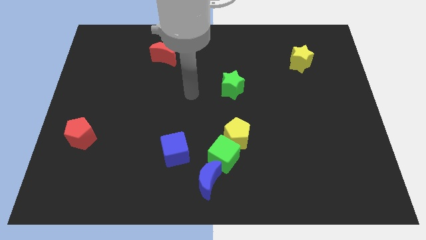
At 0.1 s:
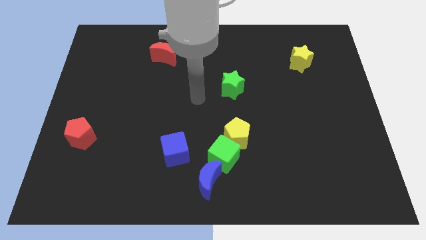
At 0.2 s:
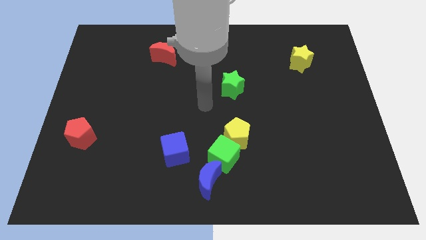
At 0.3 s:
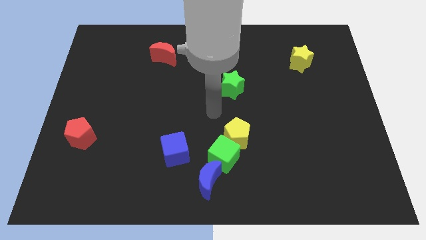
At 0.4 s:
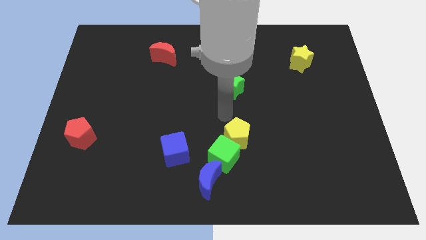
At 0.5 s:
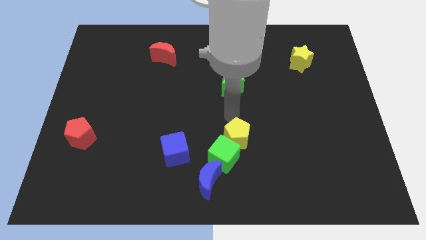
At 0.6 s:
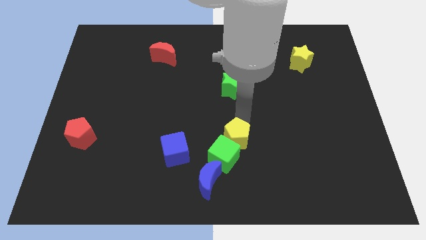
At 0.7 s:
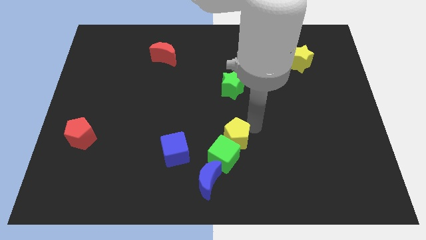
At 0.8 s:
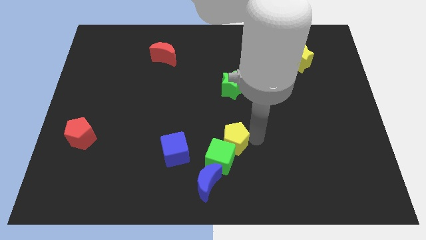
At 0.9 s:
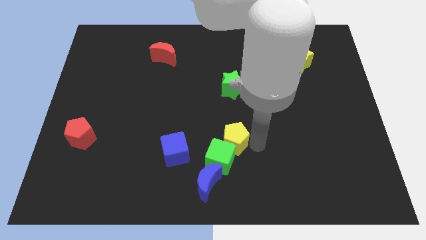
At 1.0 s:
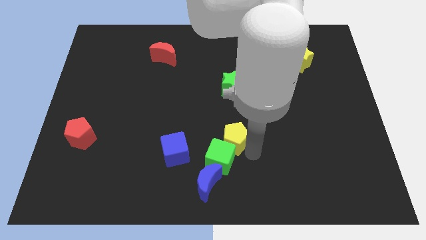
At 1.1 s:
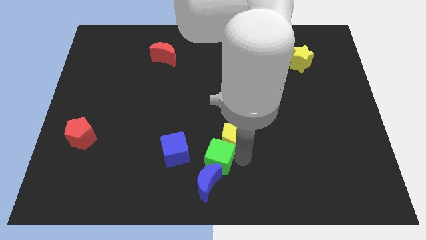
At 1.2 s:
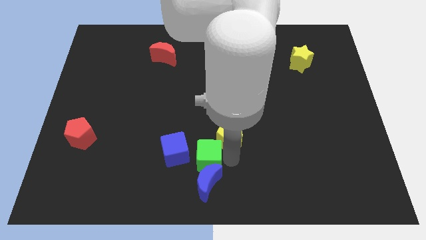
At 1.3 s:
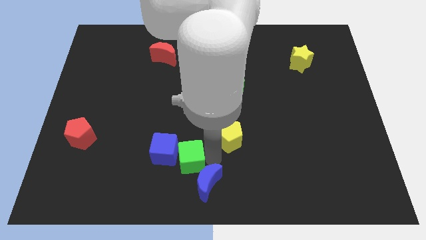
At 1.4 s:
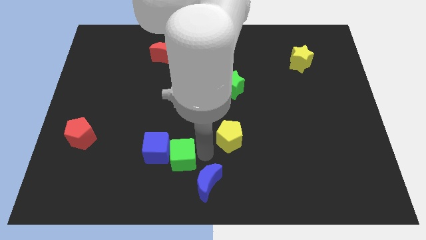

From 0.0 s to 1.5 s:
move the yellow pentagon away from the green cube

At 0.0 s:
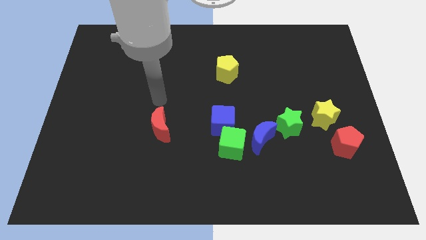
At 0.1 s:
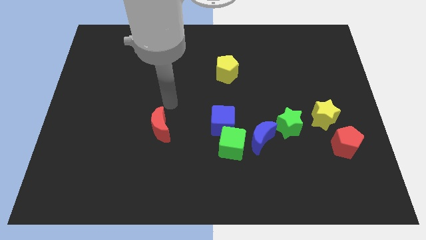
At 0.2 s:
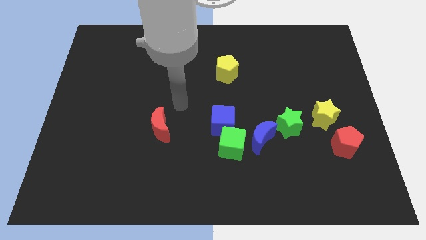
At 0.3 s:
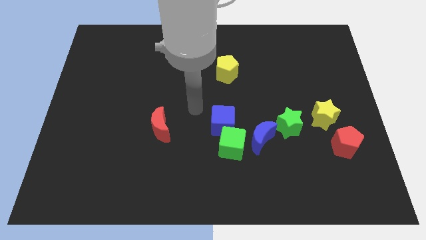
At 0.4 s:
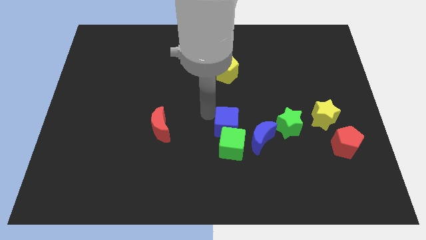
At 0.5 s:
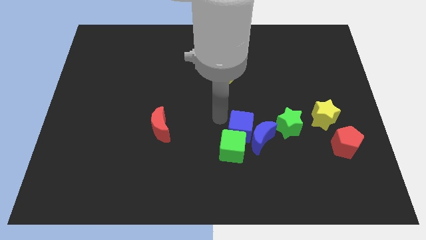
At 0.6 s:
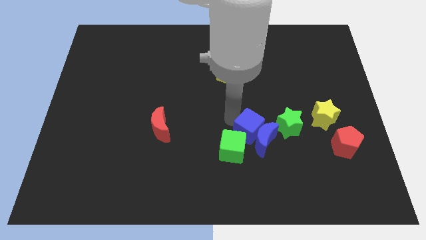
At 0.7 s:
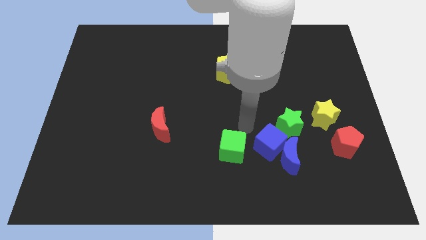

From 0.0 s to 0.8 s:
move the green cube away from the blue cube and blue moon

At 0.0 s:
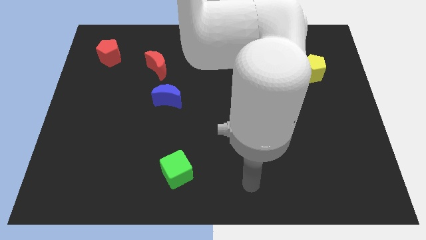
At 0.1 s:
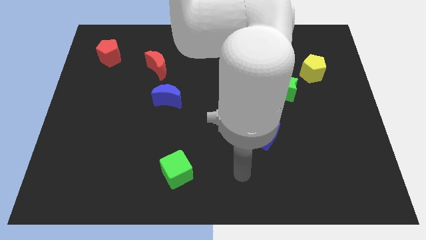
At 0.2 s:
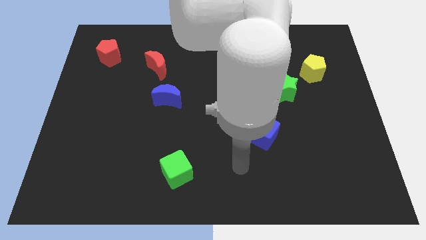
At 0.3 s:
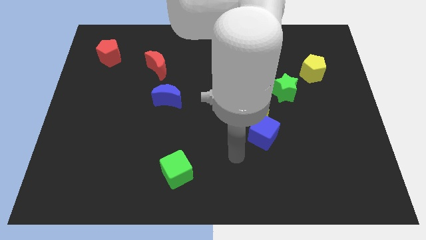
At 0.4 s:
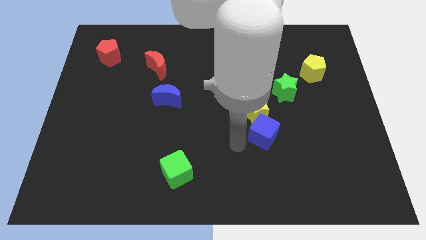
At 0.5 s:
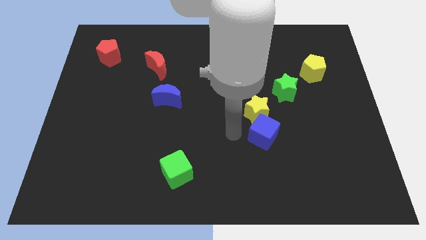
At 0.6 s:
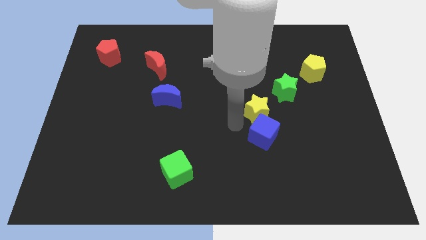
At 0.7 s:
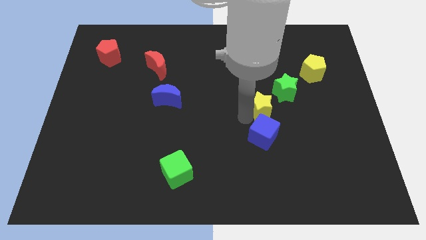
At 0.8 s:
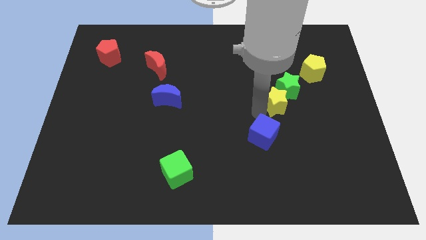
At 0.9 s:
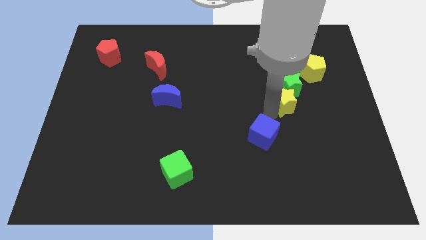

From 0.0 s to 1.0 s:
pull the blue cube apart from the yellow star

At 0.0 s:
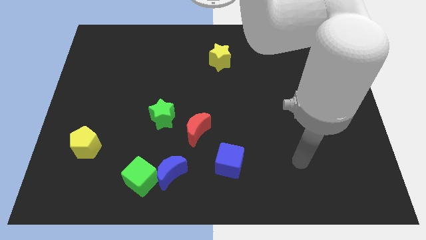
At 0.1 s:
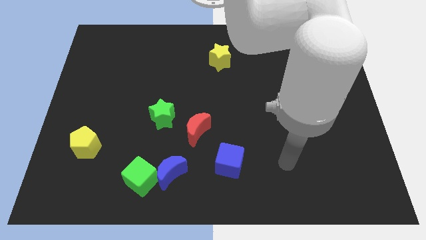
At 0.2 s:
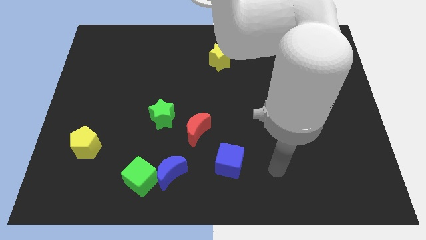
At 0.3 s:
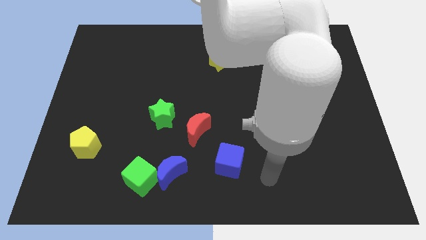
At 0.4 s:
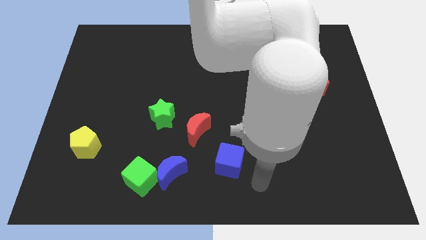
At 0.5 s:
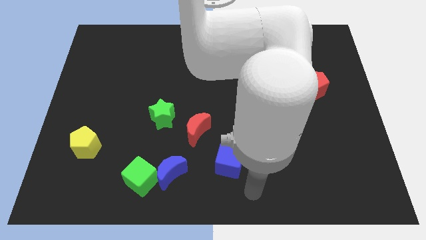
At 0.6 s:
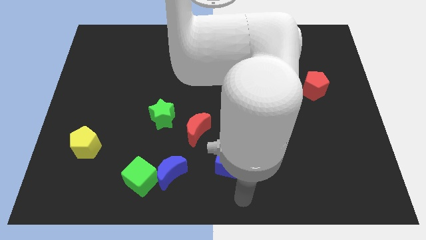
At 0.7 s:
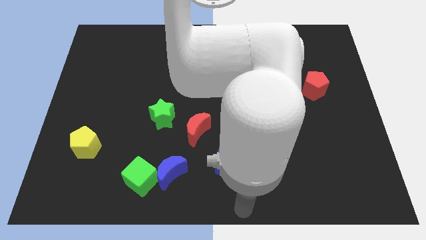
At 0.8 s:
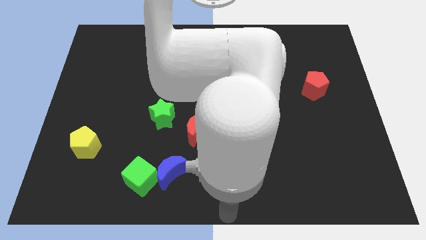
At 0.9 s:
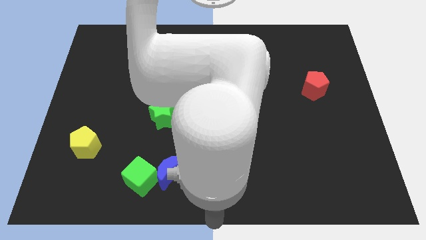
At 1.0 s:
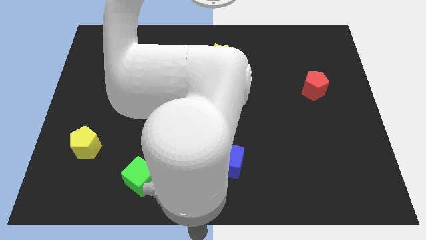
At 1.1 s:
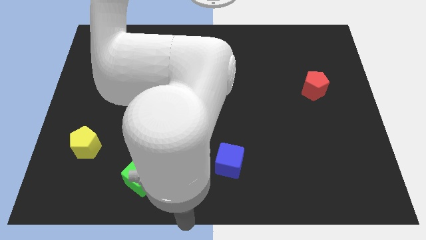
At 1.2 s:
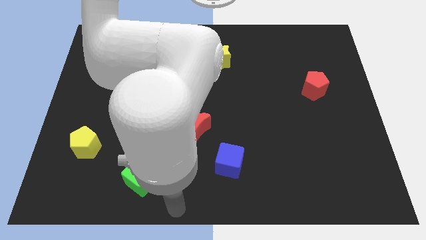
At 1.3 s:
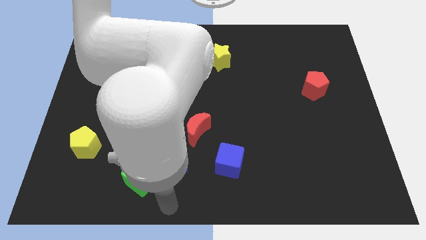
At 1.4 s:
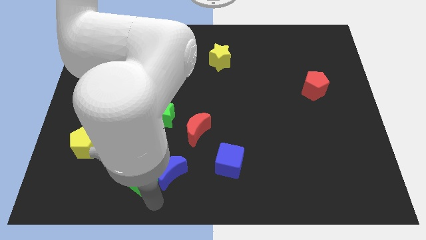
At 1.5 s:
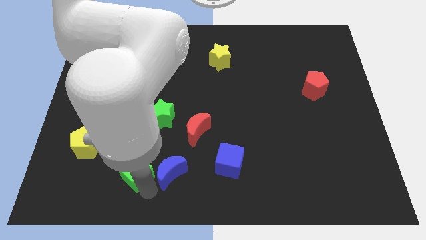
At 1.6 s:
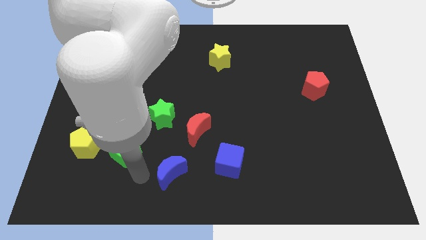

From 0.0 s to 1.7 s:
pull the blue moon apart from the green cube

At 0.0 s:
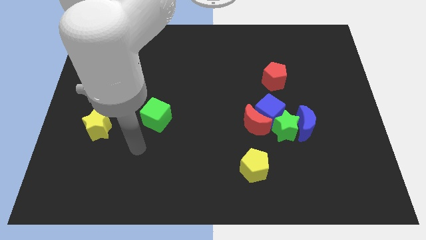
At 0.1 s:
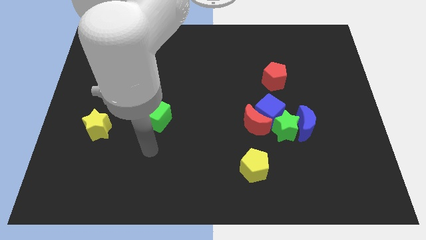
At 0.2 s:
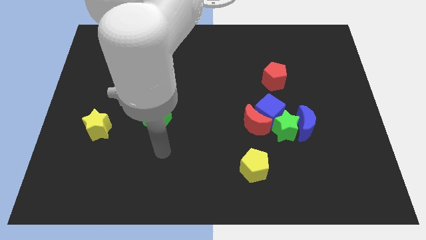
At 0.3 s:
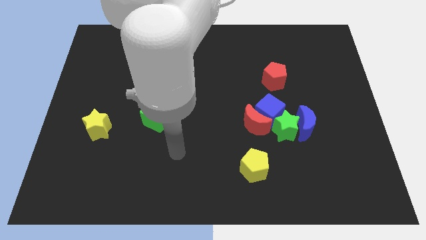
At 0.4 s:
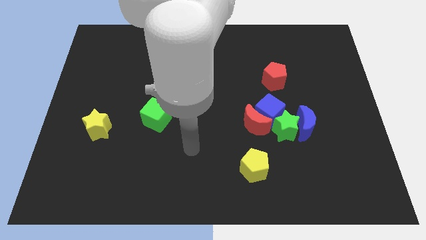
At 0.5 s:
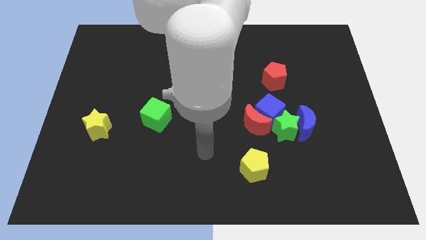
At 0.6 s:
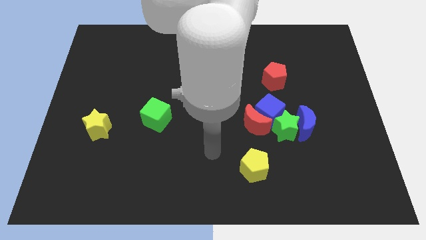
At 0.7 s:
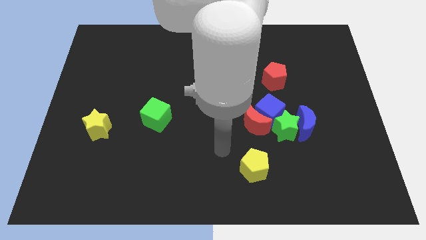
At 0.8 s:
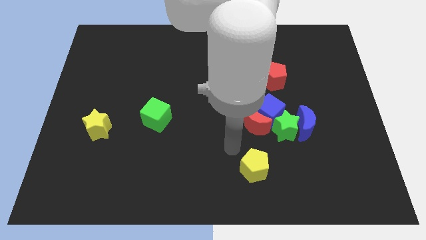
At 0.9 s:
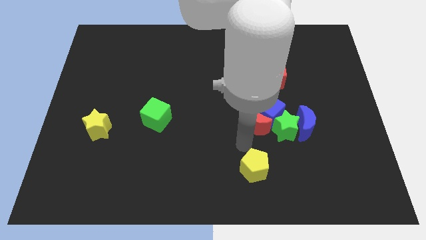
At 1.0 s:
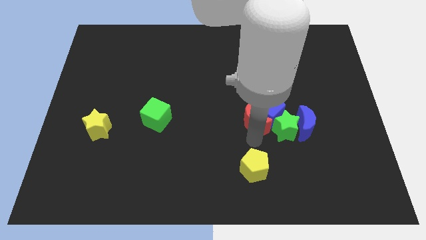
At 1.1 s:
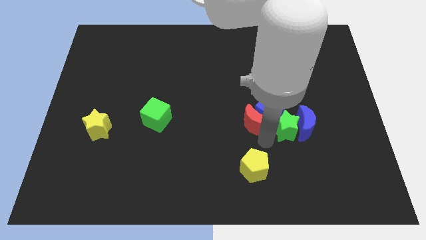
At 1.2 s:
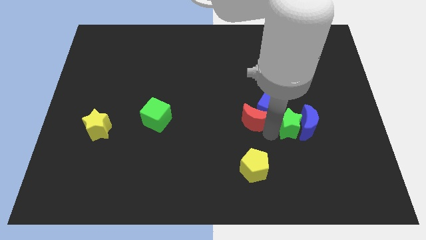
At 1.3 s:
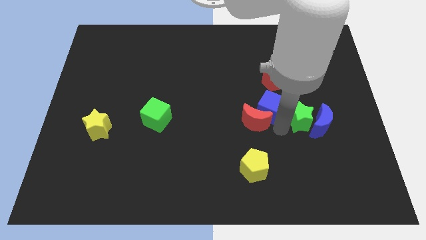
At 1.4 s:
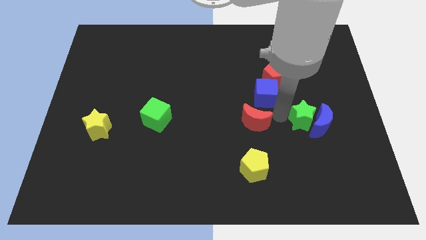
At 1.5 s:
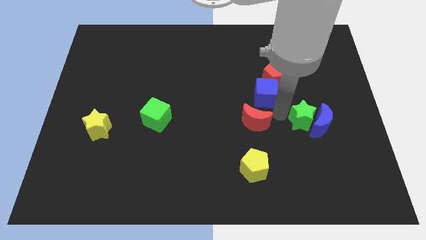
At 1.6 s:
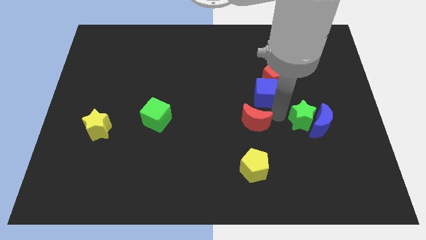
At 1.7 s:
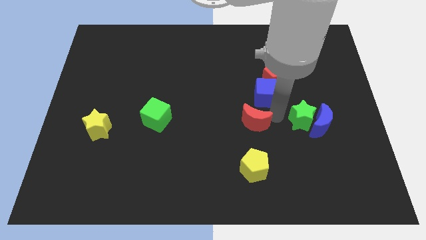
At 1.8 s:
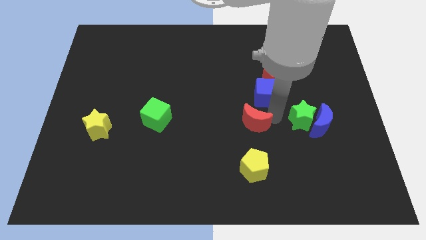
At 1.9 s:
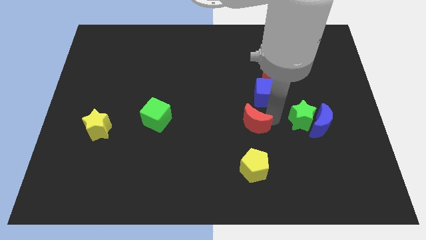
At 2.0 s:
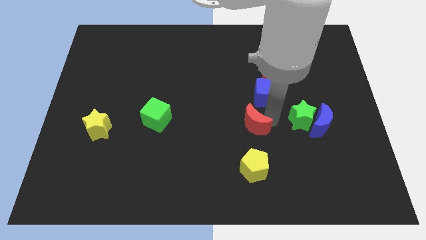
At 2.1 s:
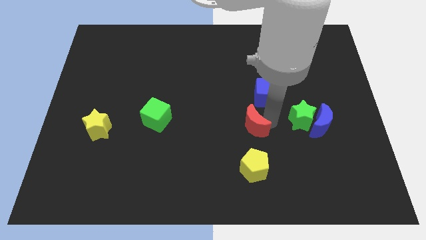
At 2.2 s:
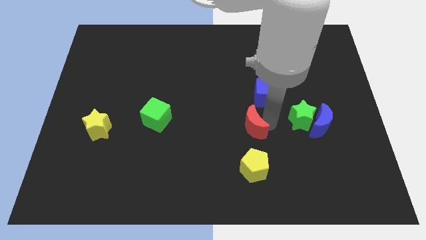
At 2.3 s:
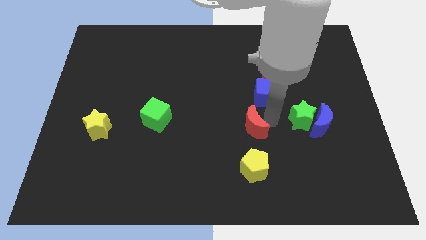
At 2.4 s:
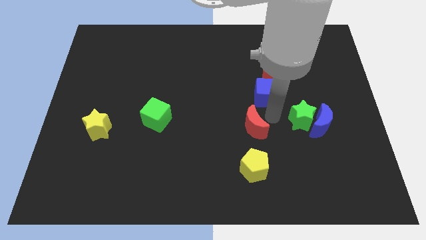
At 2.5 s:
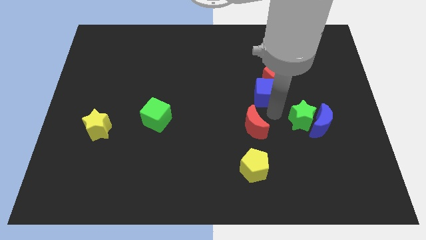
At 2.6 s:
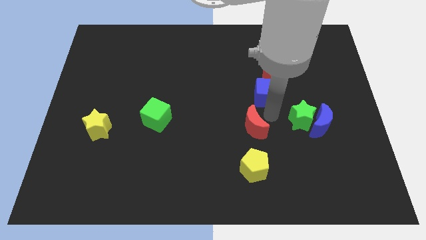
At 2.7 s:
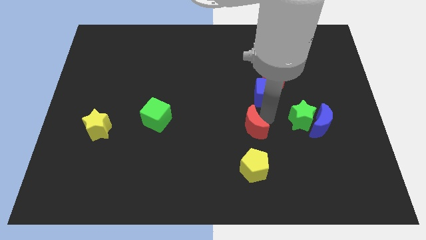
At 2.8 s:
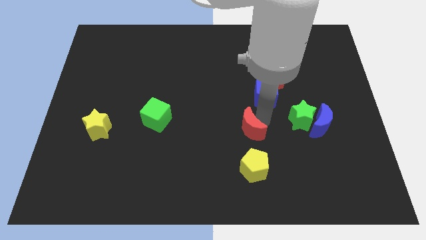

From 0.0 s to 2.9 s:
move the red moon away from the blue cube and green star

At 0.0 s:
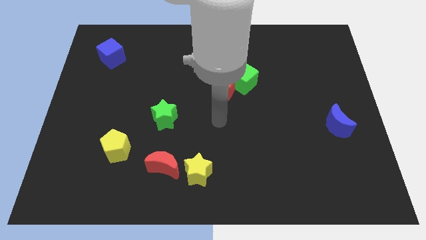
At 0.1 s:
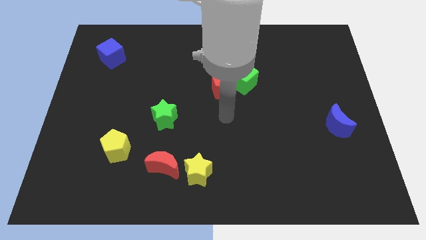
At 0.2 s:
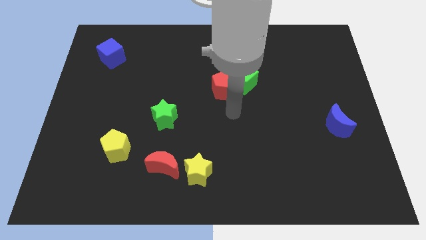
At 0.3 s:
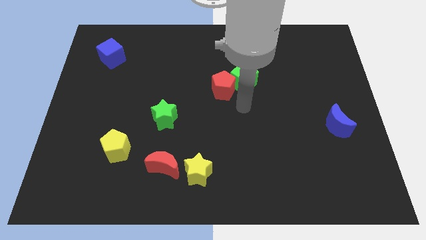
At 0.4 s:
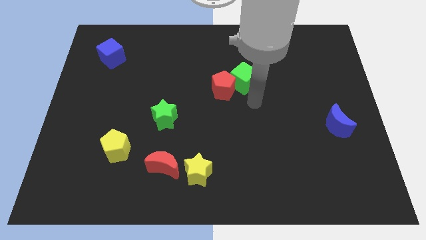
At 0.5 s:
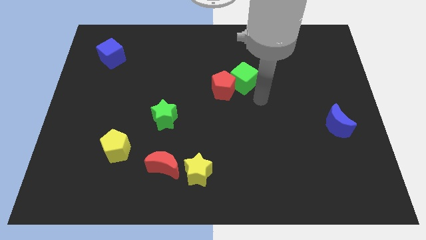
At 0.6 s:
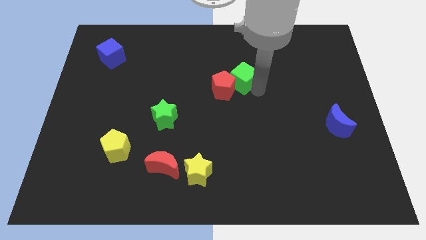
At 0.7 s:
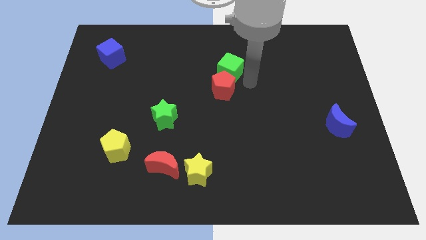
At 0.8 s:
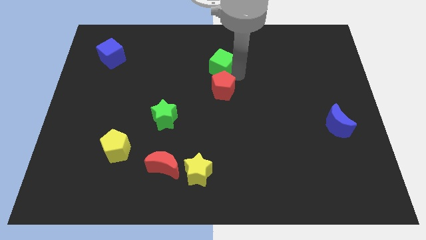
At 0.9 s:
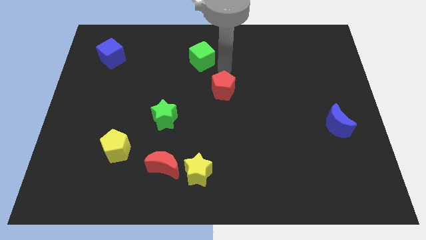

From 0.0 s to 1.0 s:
separate the red pentagon from the green cube

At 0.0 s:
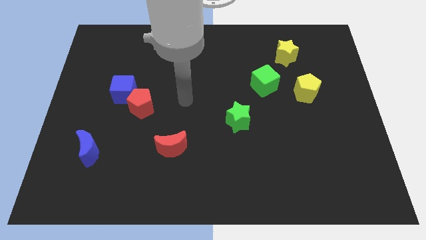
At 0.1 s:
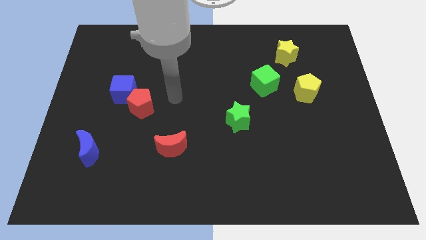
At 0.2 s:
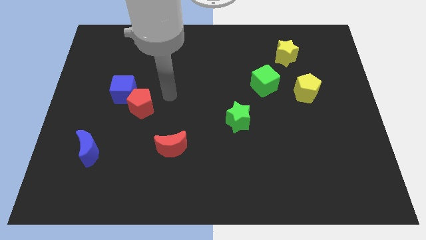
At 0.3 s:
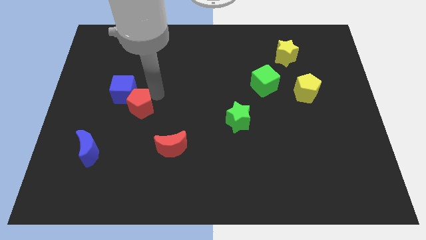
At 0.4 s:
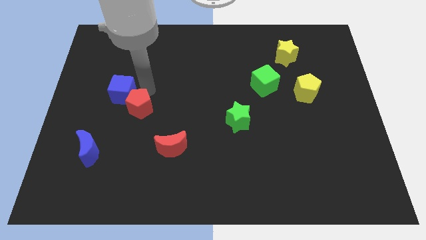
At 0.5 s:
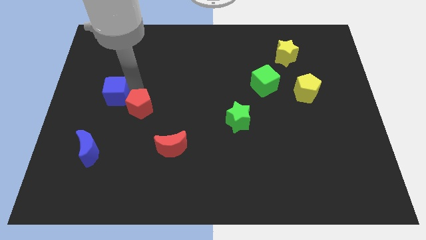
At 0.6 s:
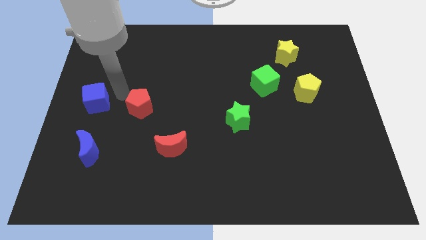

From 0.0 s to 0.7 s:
pull the red pentagon apart from the blue cube
